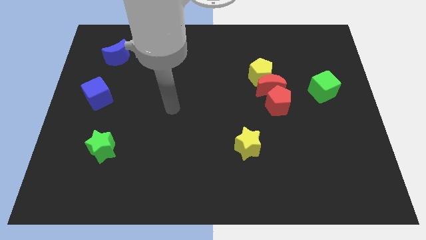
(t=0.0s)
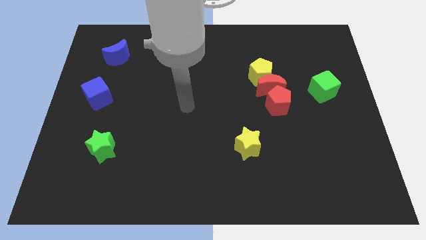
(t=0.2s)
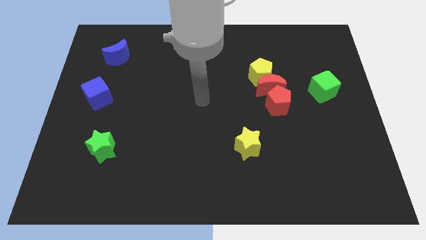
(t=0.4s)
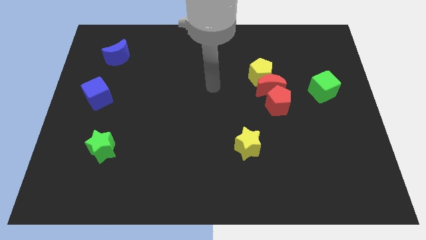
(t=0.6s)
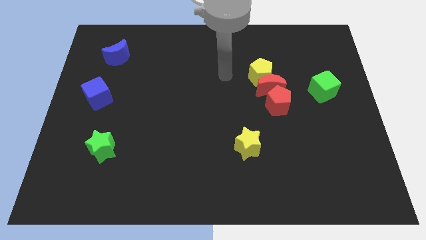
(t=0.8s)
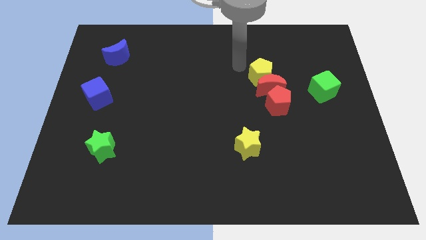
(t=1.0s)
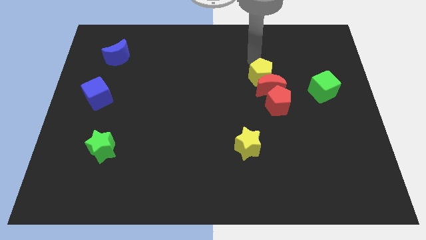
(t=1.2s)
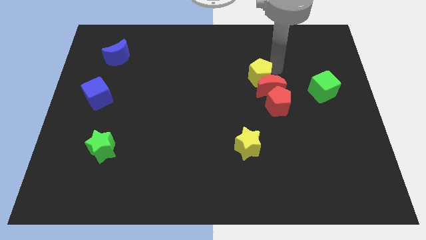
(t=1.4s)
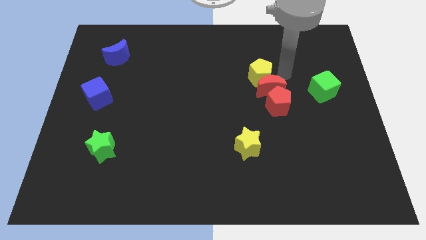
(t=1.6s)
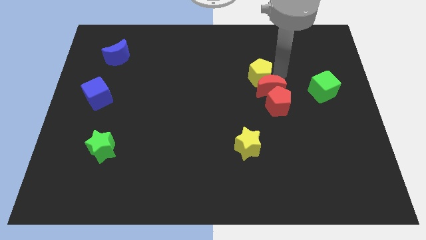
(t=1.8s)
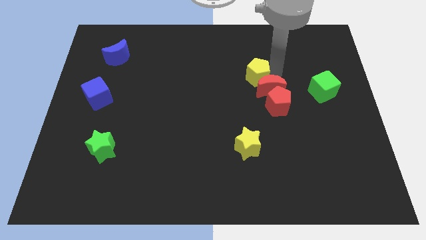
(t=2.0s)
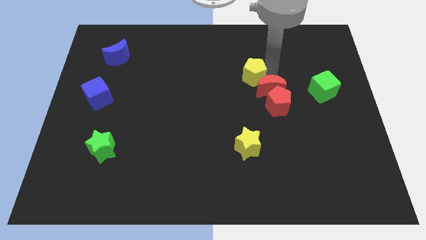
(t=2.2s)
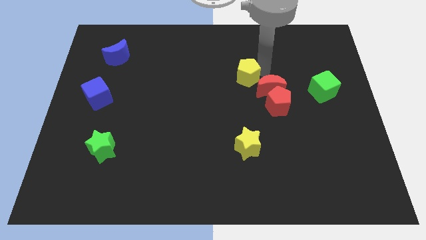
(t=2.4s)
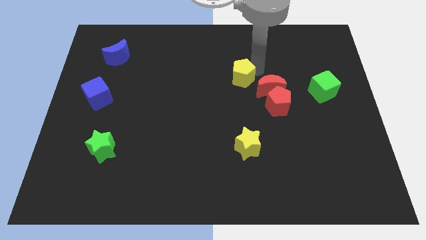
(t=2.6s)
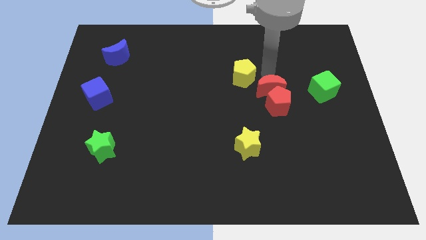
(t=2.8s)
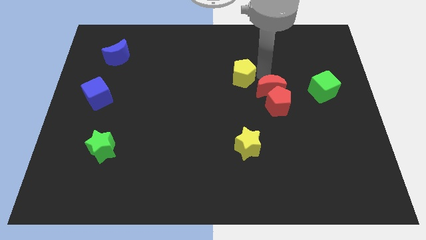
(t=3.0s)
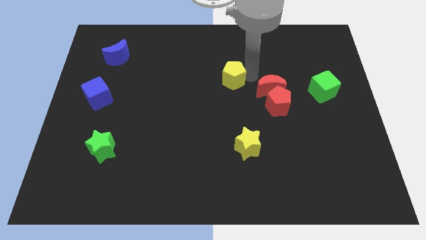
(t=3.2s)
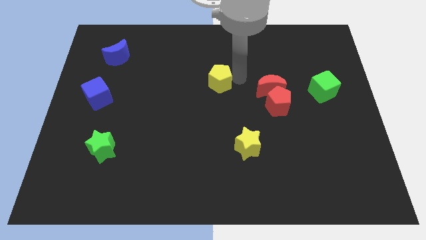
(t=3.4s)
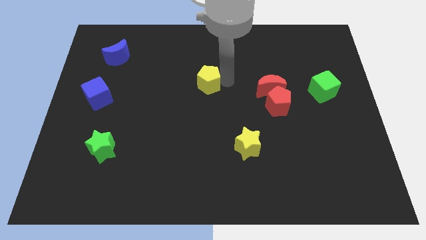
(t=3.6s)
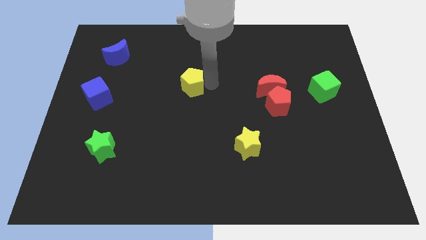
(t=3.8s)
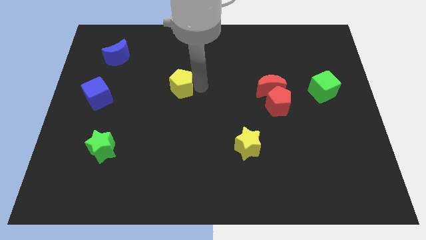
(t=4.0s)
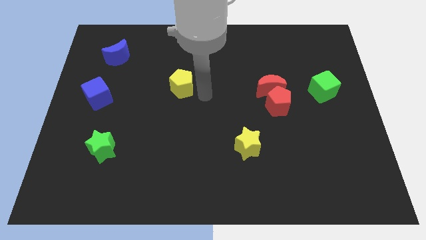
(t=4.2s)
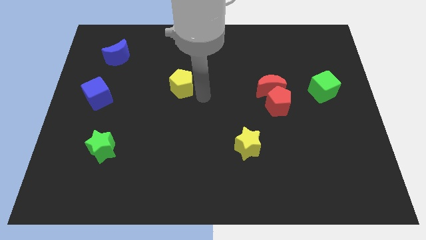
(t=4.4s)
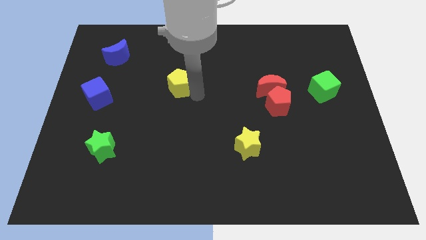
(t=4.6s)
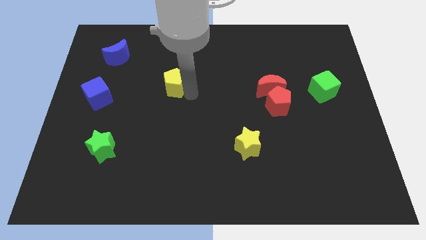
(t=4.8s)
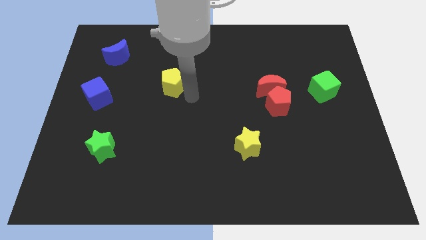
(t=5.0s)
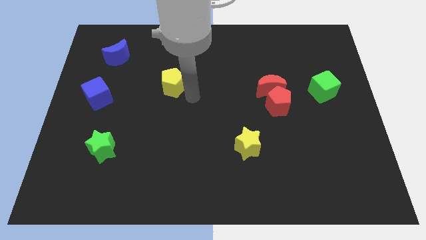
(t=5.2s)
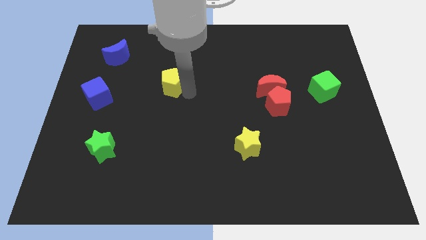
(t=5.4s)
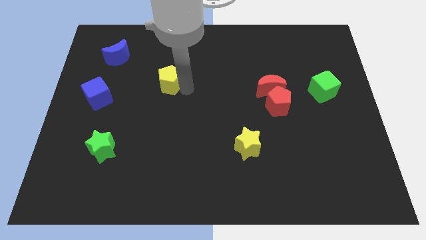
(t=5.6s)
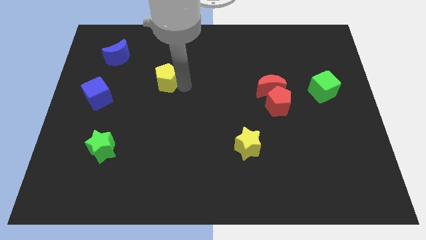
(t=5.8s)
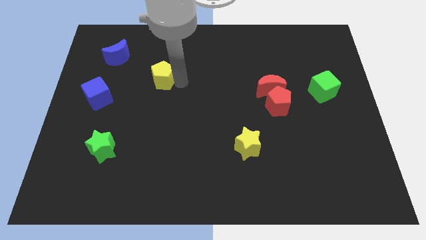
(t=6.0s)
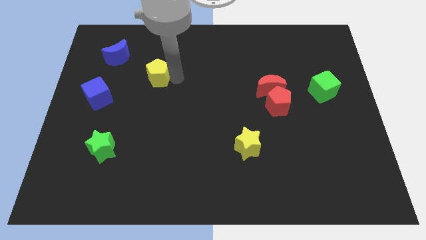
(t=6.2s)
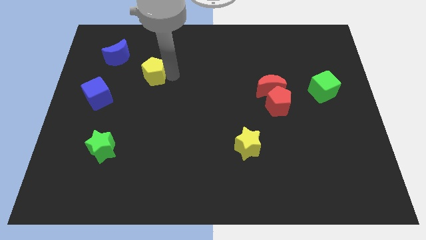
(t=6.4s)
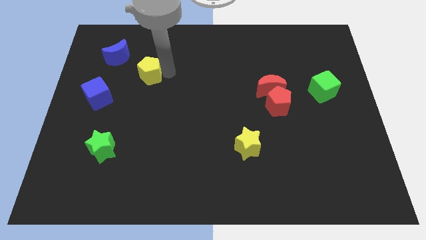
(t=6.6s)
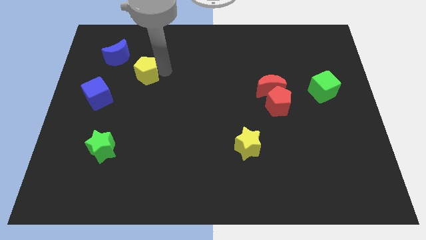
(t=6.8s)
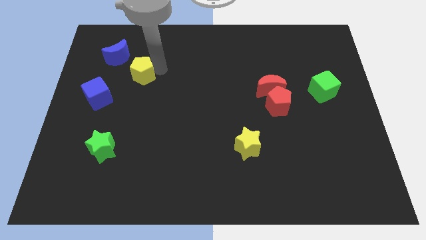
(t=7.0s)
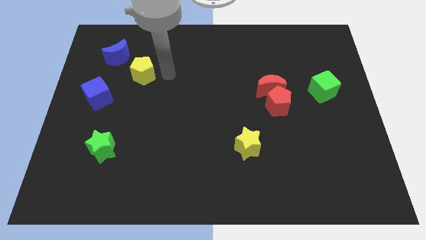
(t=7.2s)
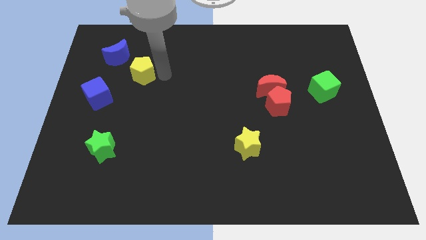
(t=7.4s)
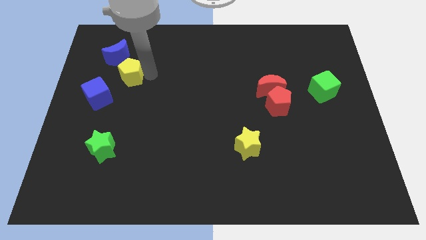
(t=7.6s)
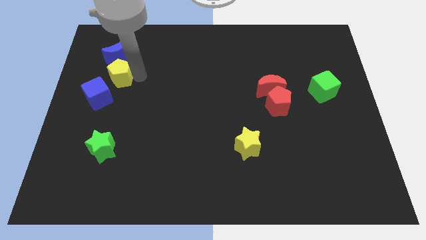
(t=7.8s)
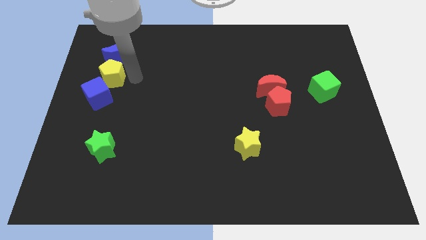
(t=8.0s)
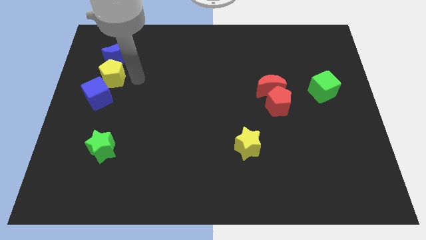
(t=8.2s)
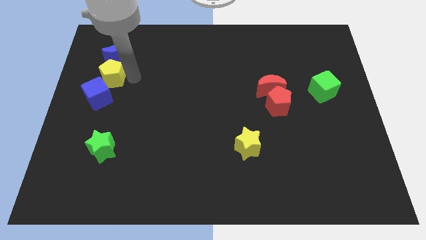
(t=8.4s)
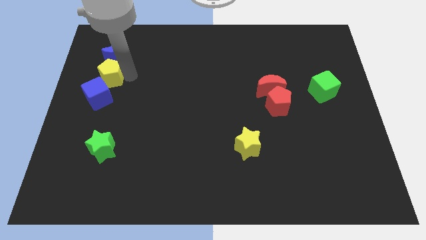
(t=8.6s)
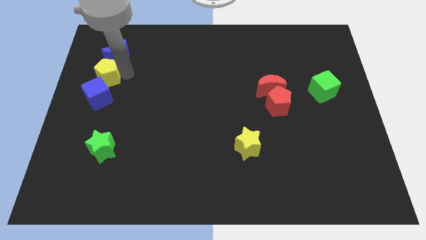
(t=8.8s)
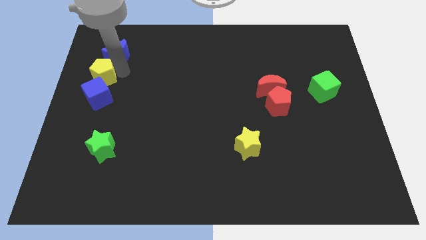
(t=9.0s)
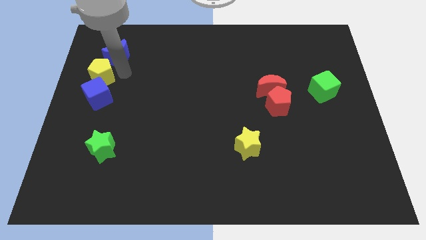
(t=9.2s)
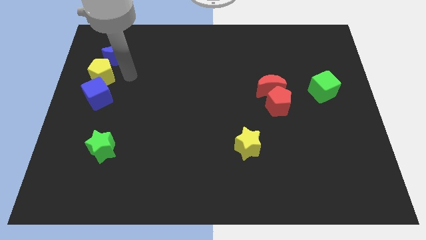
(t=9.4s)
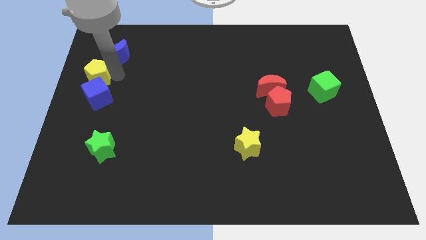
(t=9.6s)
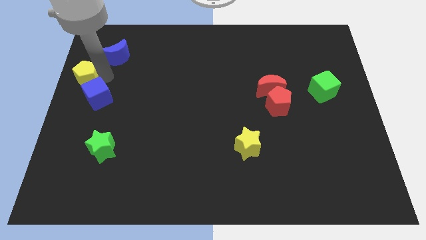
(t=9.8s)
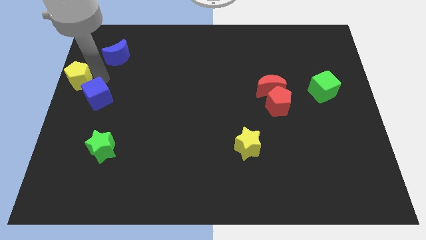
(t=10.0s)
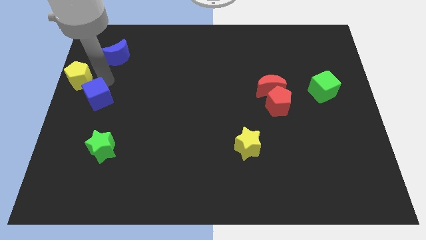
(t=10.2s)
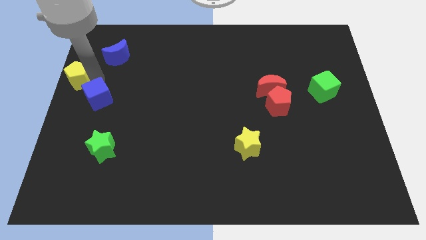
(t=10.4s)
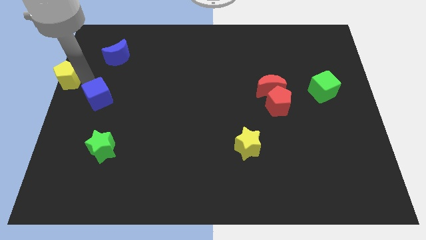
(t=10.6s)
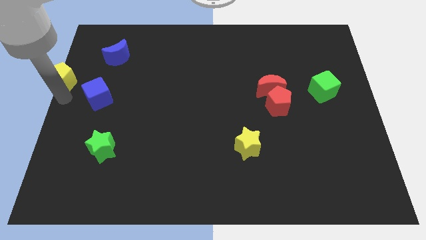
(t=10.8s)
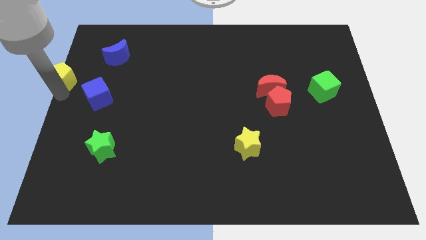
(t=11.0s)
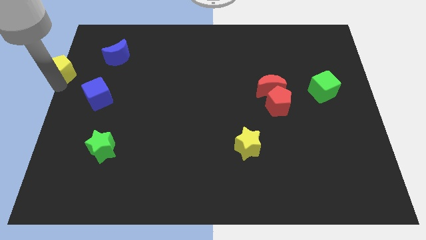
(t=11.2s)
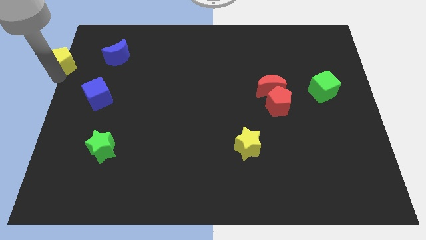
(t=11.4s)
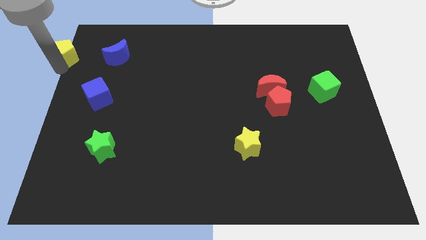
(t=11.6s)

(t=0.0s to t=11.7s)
push the yellow pentagon to the upper left corner

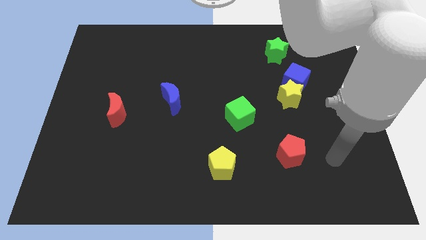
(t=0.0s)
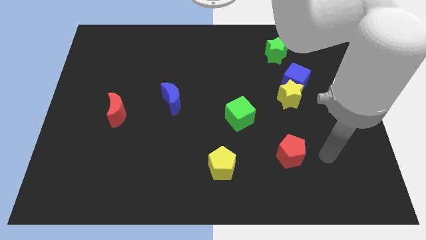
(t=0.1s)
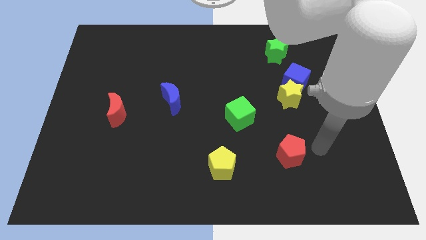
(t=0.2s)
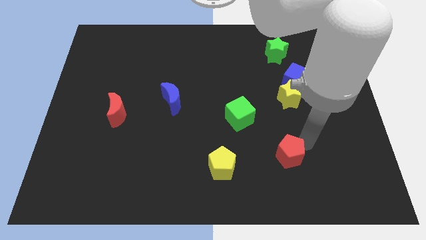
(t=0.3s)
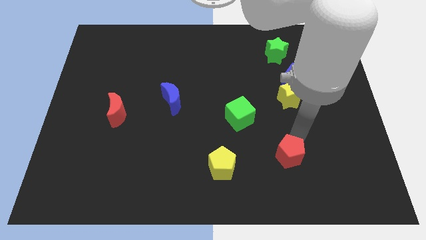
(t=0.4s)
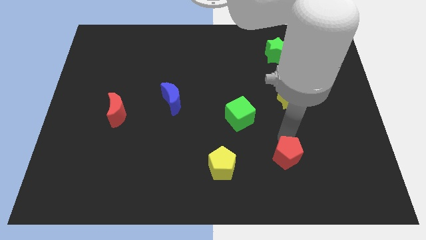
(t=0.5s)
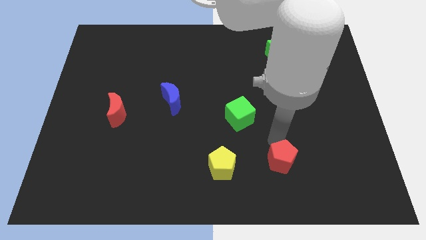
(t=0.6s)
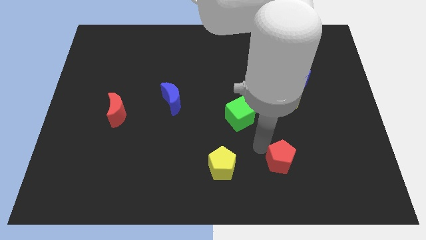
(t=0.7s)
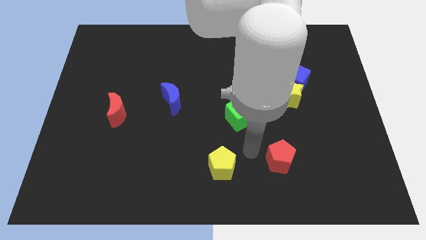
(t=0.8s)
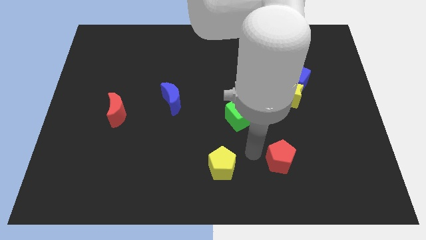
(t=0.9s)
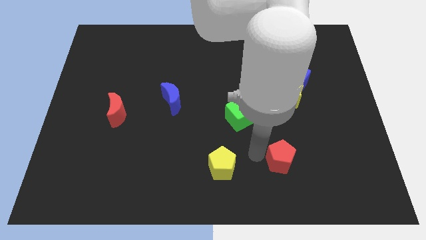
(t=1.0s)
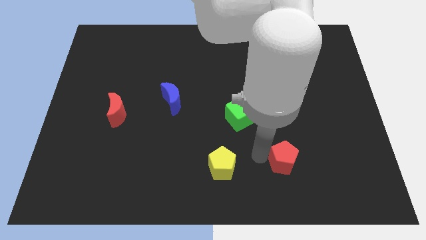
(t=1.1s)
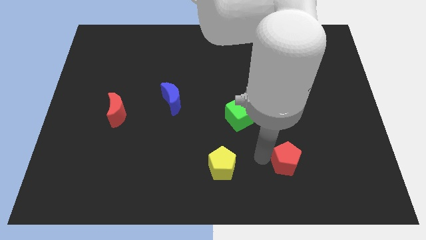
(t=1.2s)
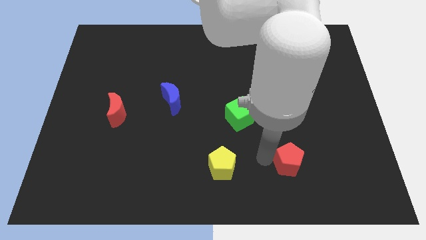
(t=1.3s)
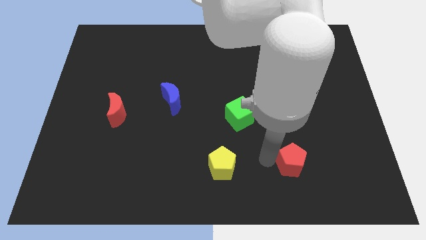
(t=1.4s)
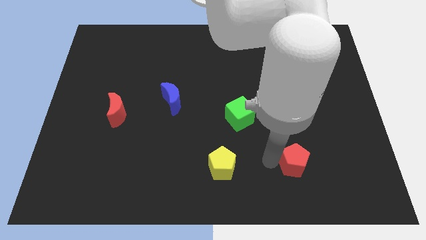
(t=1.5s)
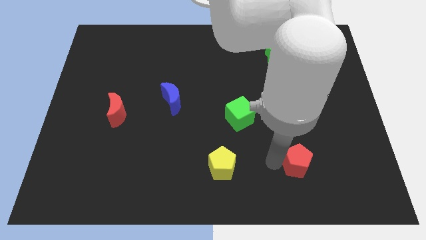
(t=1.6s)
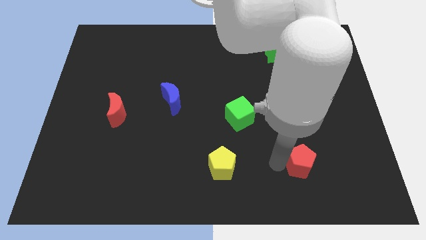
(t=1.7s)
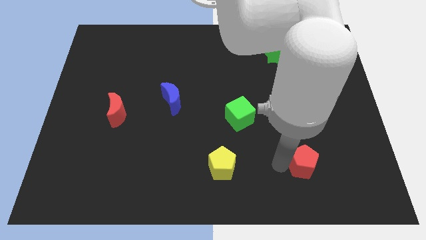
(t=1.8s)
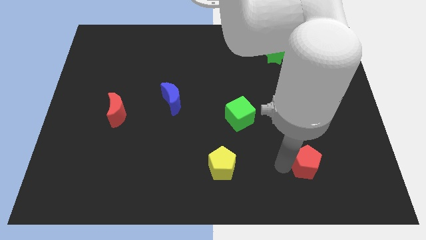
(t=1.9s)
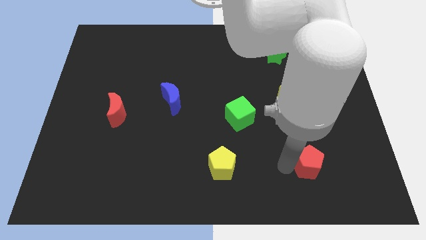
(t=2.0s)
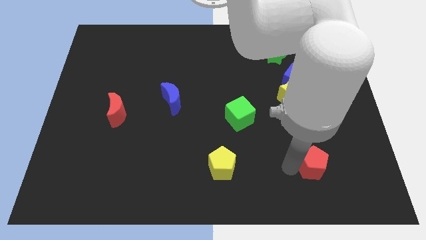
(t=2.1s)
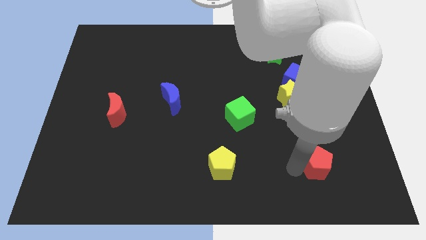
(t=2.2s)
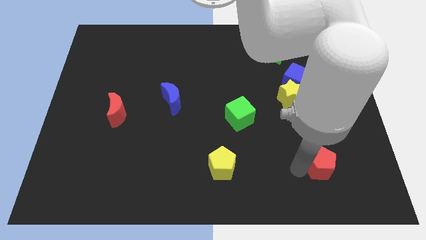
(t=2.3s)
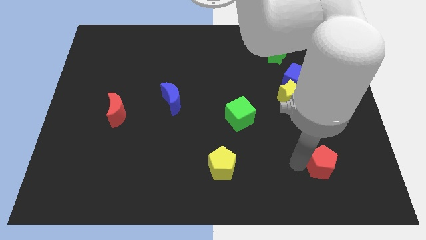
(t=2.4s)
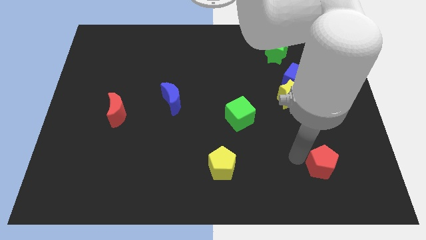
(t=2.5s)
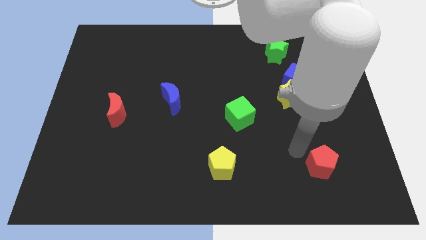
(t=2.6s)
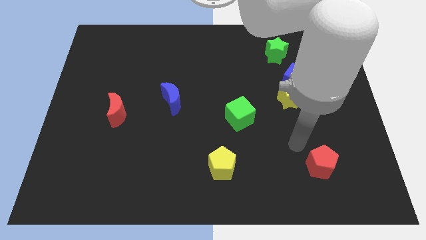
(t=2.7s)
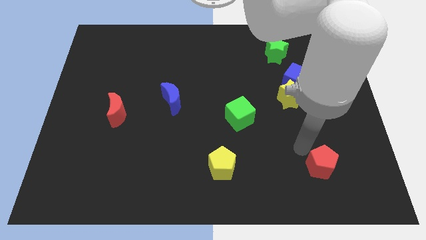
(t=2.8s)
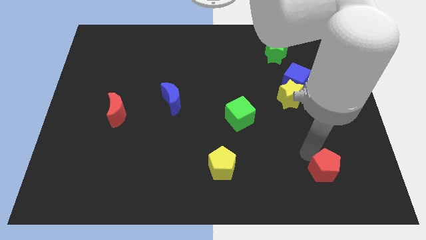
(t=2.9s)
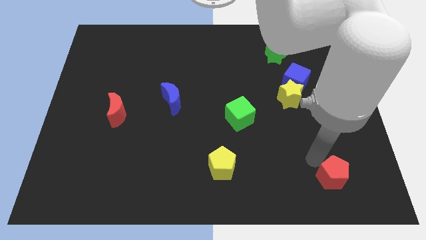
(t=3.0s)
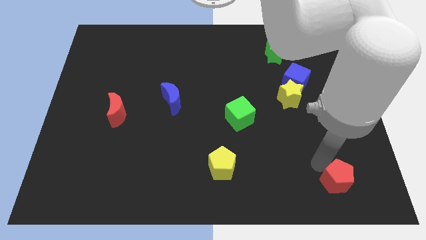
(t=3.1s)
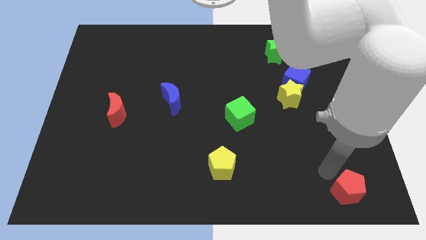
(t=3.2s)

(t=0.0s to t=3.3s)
put the red pentagon to the bottom right corner
